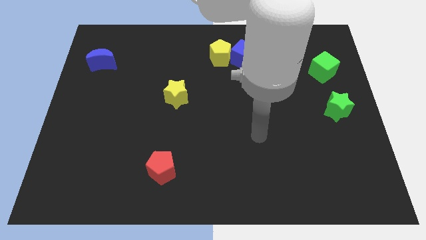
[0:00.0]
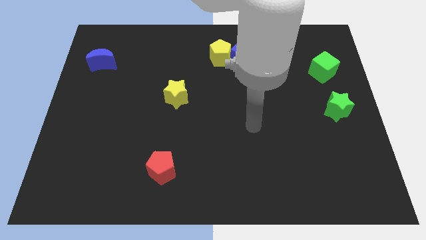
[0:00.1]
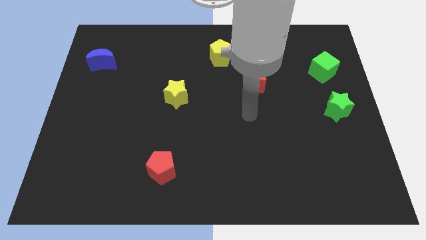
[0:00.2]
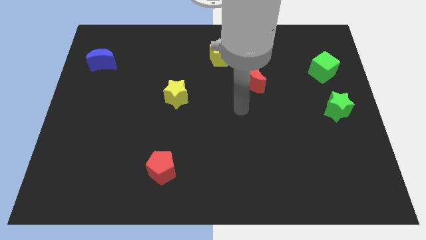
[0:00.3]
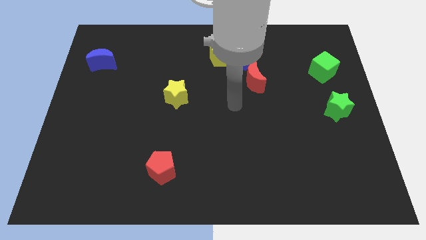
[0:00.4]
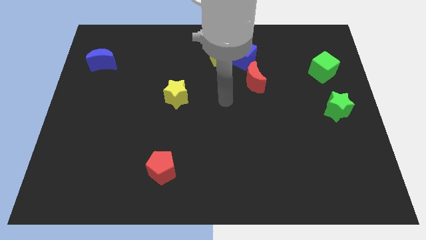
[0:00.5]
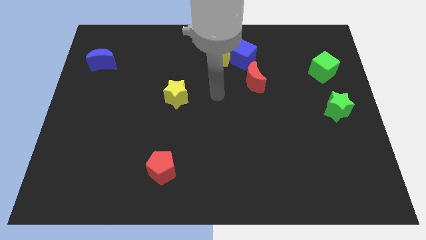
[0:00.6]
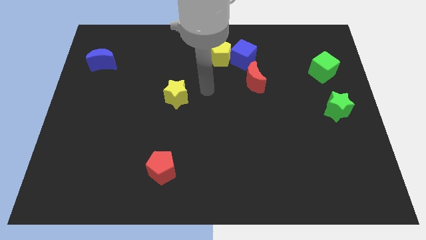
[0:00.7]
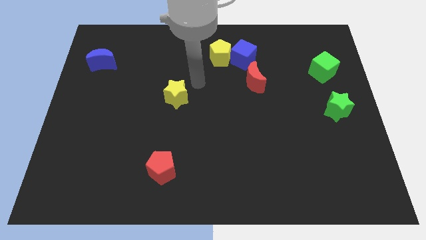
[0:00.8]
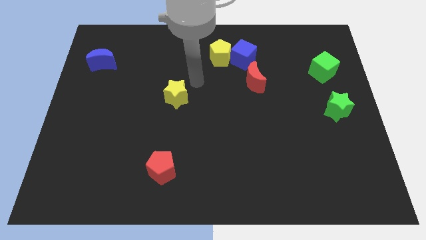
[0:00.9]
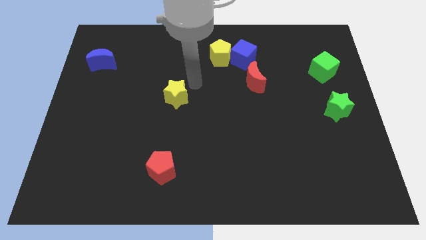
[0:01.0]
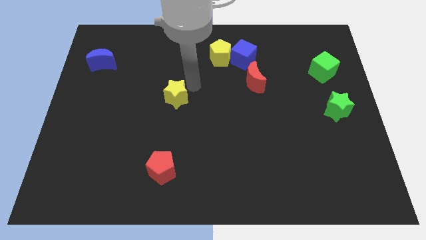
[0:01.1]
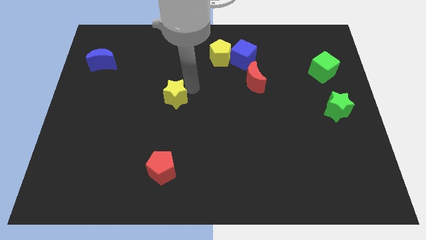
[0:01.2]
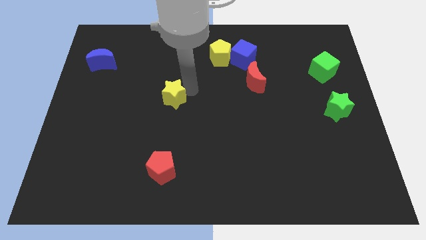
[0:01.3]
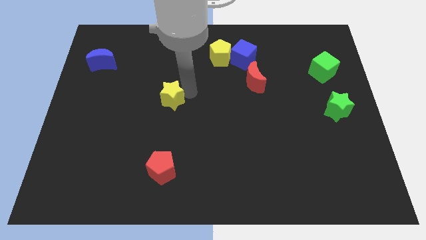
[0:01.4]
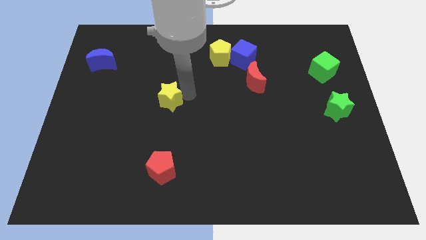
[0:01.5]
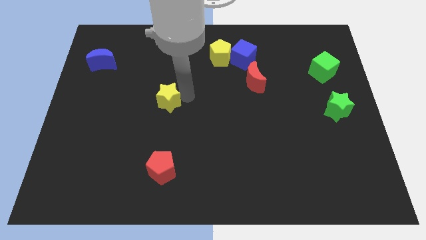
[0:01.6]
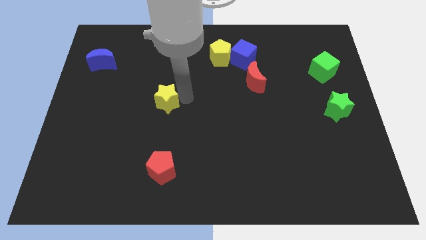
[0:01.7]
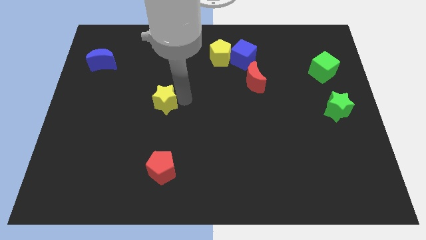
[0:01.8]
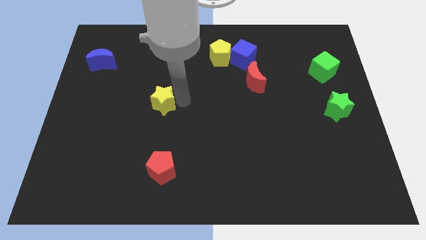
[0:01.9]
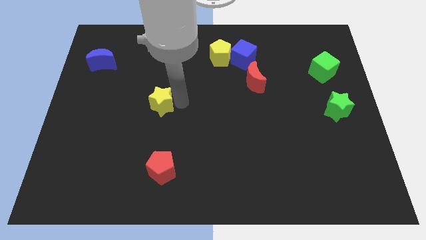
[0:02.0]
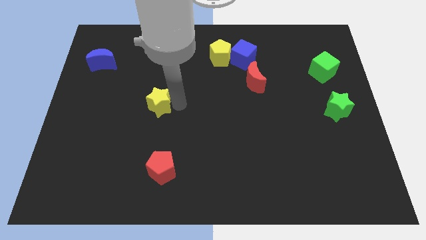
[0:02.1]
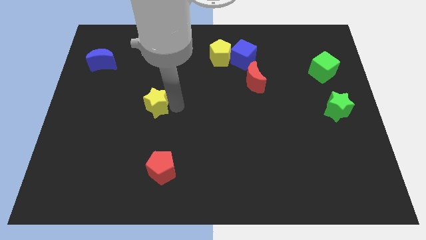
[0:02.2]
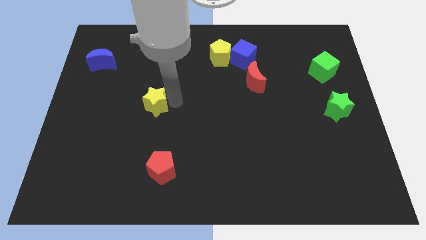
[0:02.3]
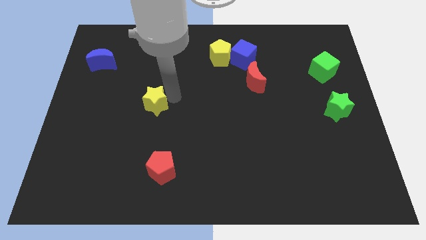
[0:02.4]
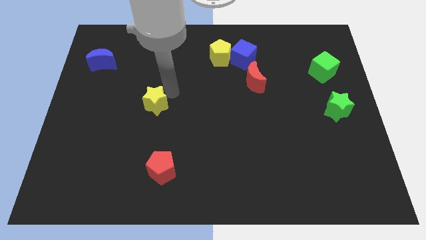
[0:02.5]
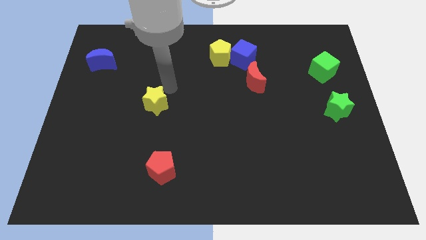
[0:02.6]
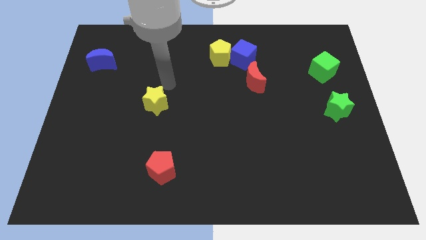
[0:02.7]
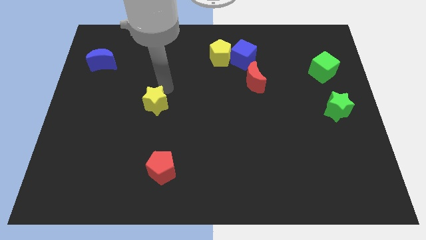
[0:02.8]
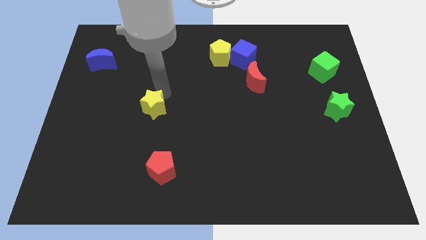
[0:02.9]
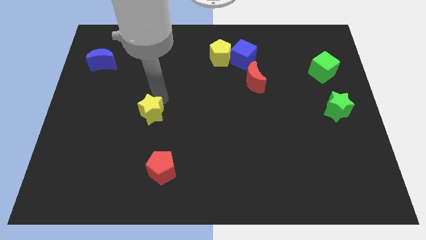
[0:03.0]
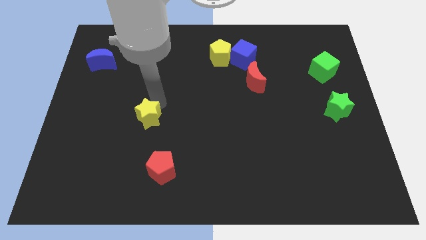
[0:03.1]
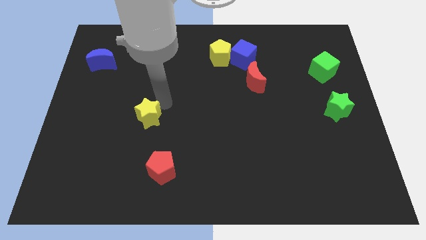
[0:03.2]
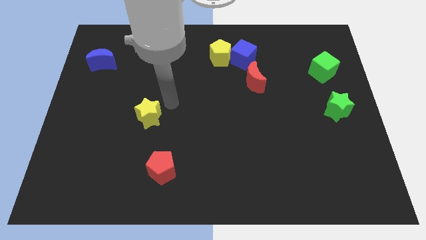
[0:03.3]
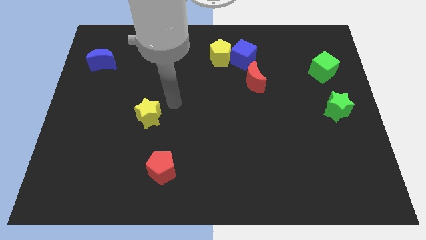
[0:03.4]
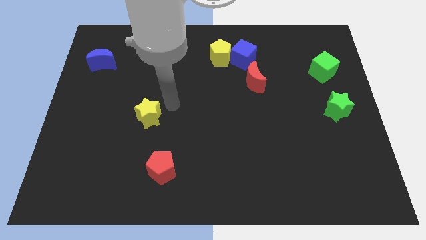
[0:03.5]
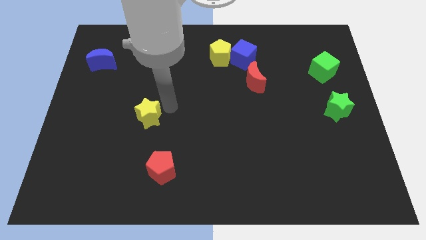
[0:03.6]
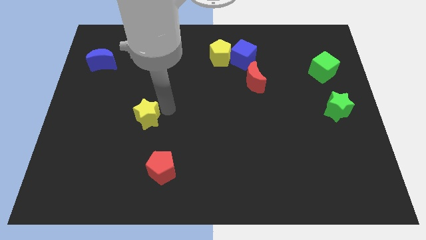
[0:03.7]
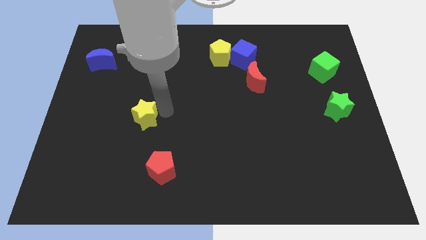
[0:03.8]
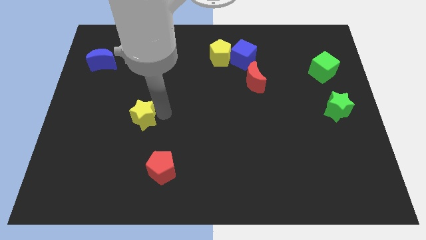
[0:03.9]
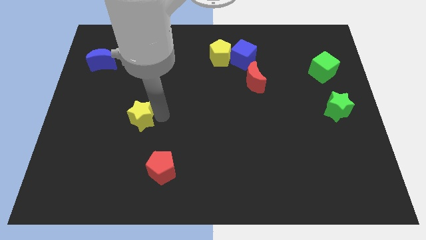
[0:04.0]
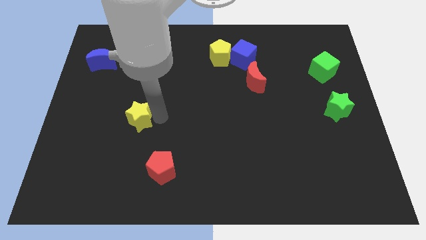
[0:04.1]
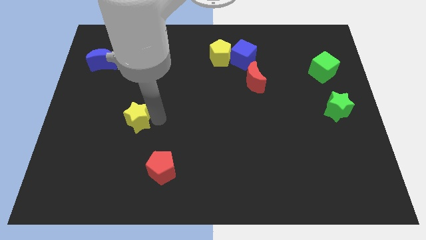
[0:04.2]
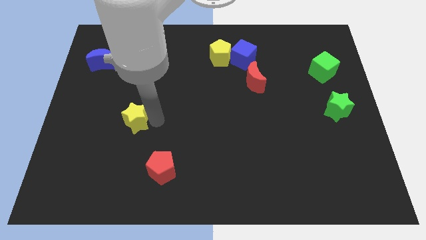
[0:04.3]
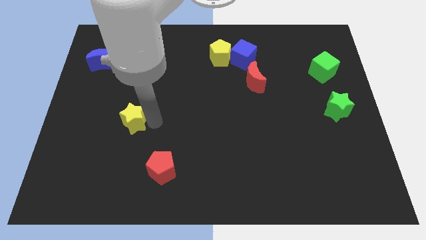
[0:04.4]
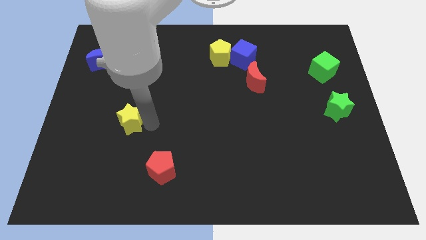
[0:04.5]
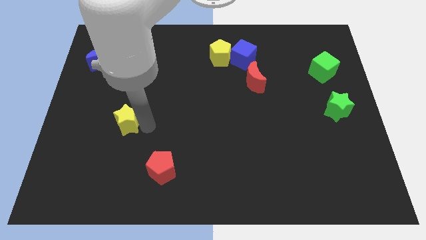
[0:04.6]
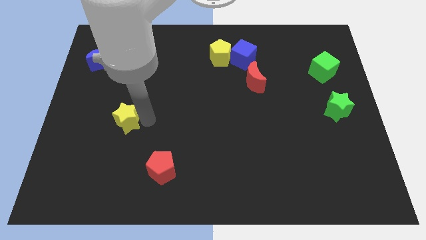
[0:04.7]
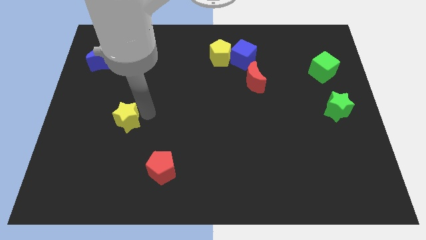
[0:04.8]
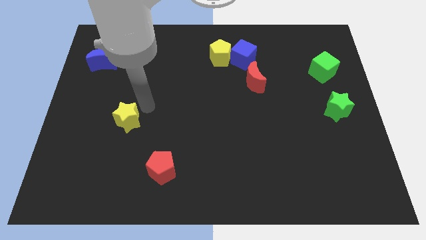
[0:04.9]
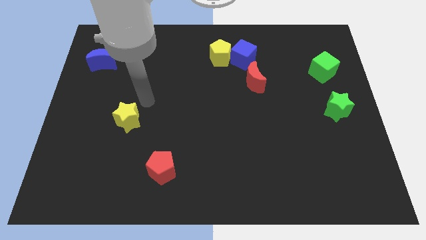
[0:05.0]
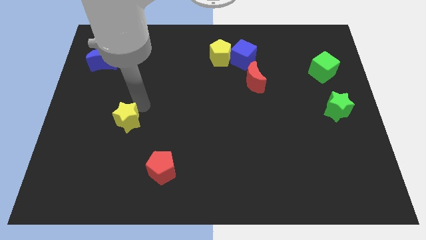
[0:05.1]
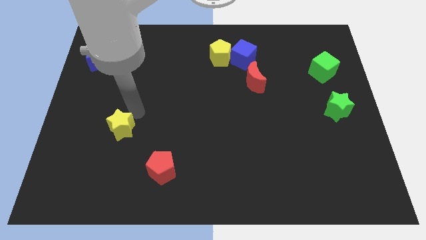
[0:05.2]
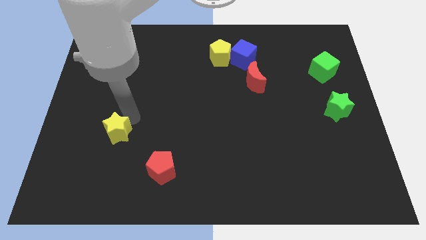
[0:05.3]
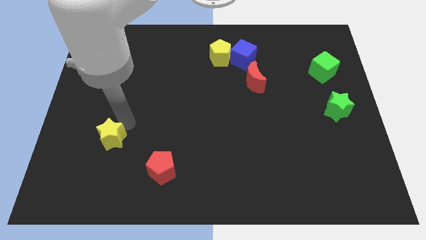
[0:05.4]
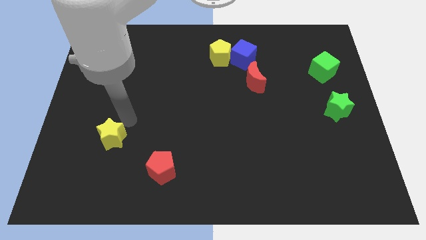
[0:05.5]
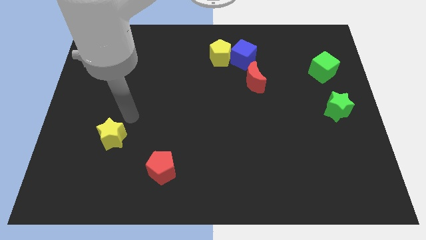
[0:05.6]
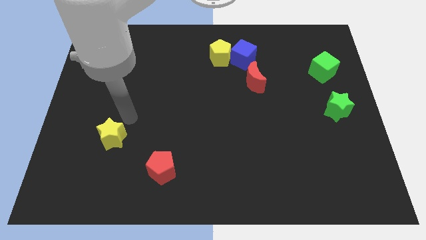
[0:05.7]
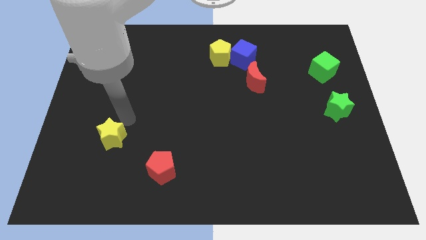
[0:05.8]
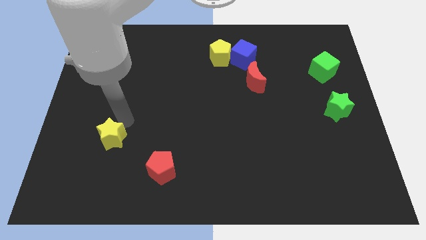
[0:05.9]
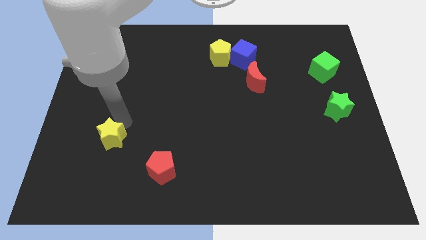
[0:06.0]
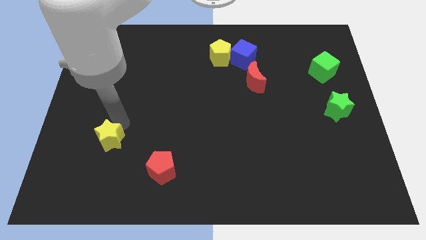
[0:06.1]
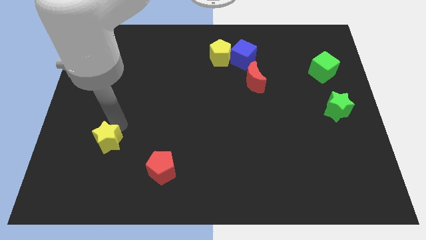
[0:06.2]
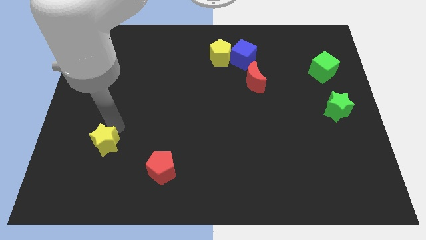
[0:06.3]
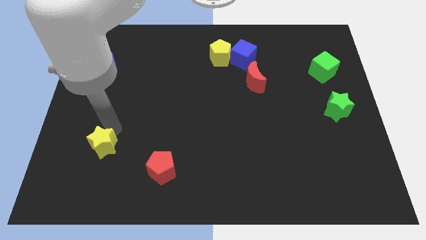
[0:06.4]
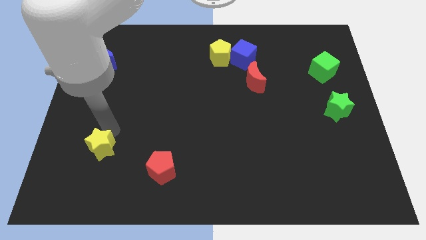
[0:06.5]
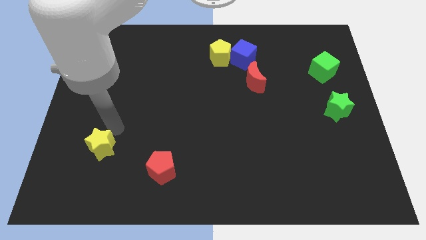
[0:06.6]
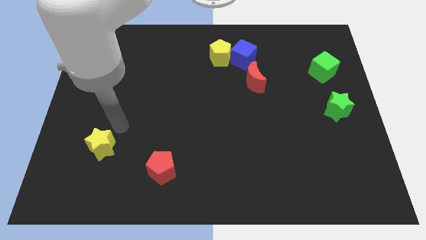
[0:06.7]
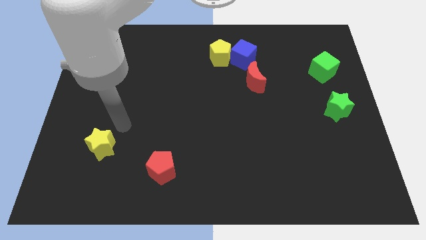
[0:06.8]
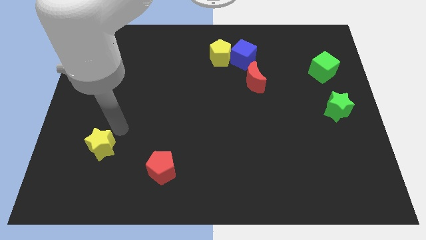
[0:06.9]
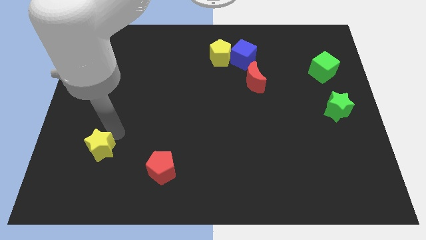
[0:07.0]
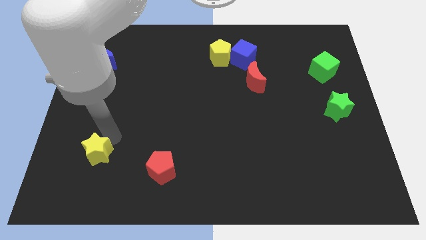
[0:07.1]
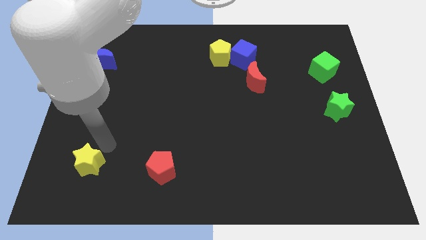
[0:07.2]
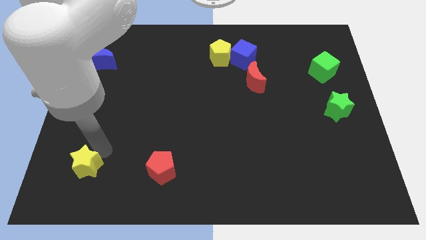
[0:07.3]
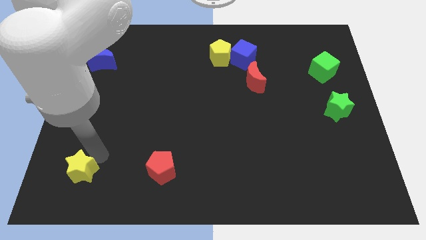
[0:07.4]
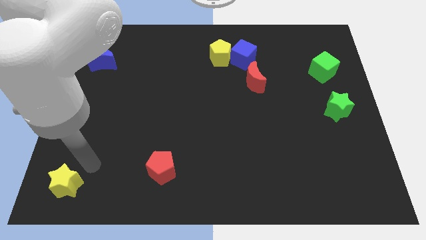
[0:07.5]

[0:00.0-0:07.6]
slide the yellow star to the bottom left corner

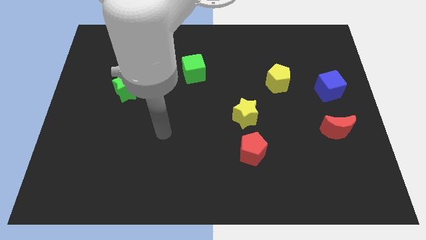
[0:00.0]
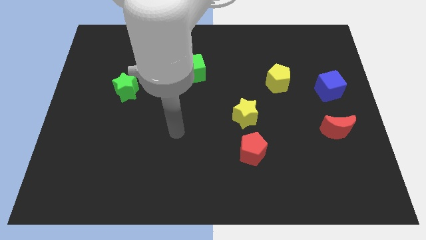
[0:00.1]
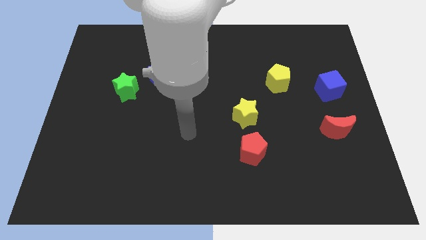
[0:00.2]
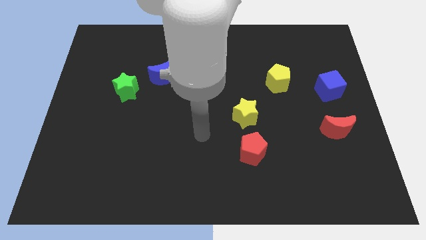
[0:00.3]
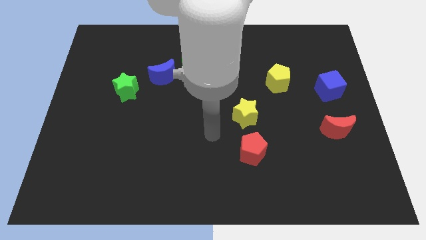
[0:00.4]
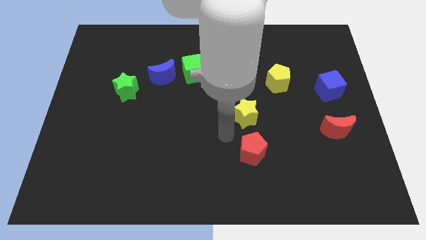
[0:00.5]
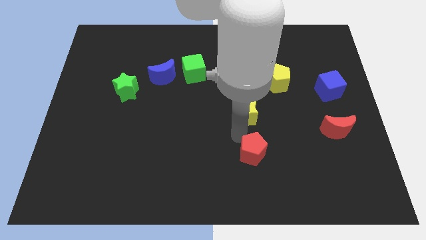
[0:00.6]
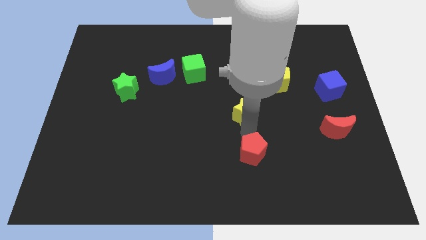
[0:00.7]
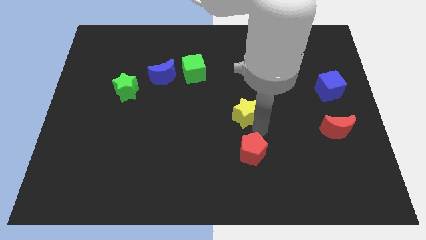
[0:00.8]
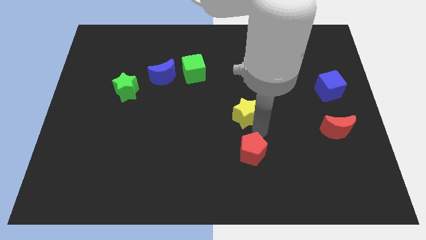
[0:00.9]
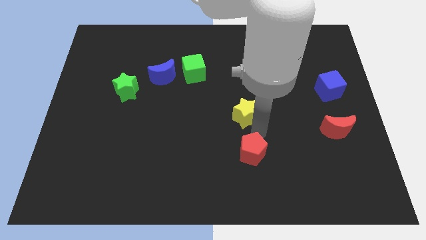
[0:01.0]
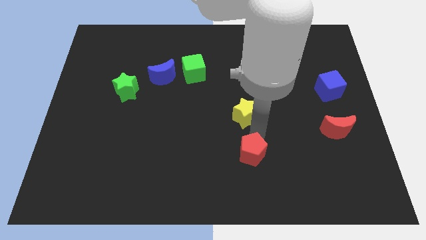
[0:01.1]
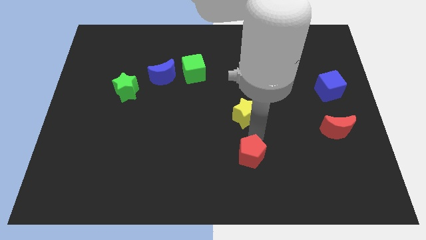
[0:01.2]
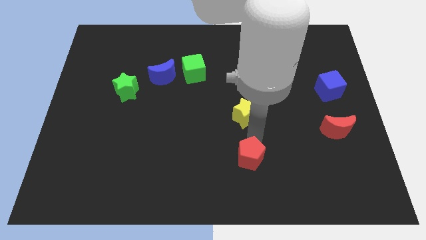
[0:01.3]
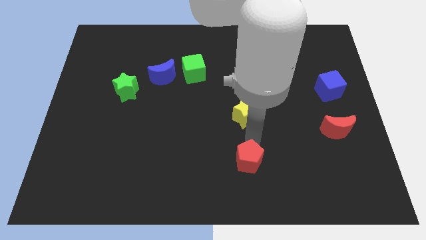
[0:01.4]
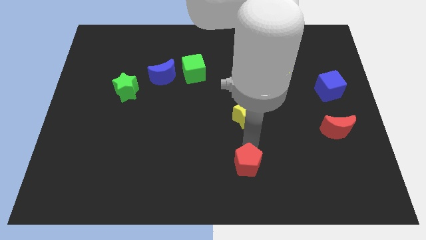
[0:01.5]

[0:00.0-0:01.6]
move the red pentagon to the bottom
